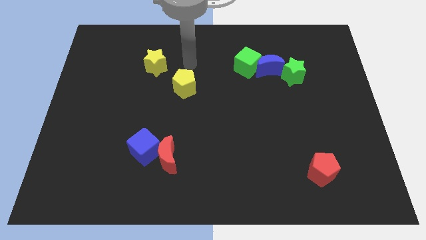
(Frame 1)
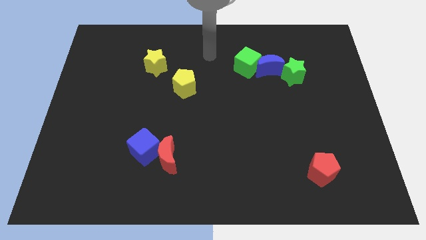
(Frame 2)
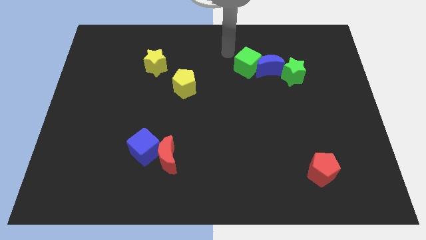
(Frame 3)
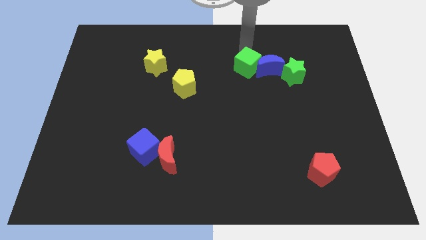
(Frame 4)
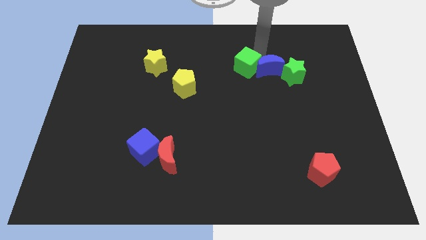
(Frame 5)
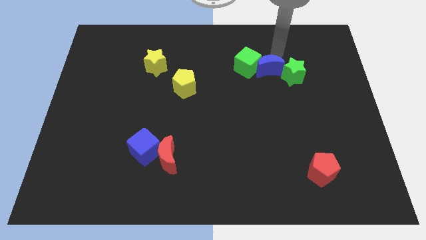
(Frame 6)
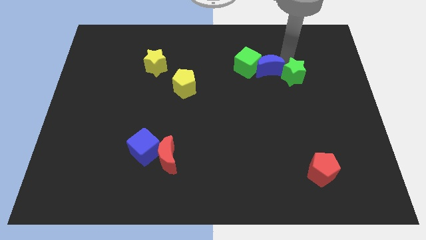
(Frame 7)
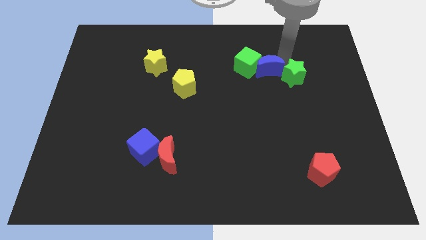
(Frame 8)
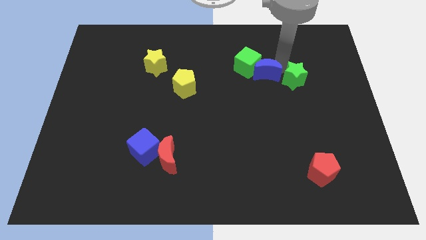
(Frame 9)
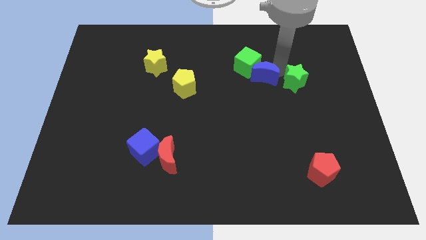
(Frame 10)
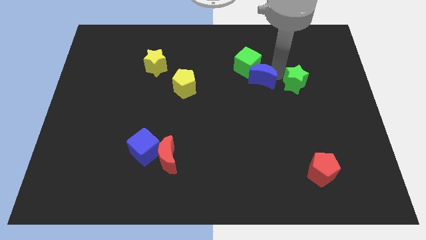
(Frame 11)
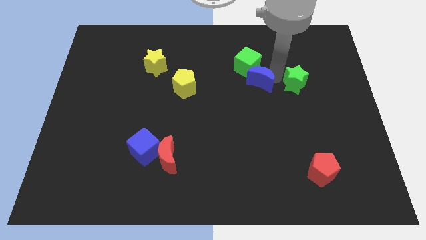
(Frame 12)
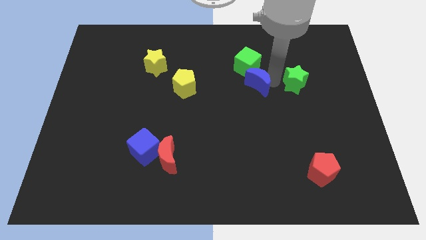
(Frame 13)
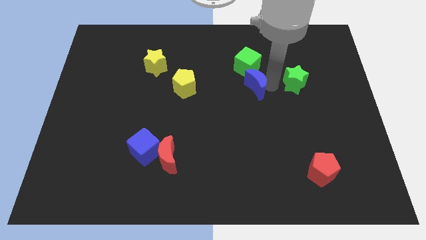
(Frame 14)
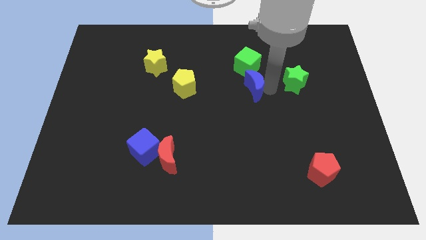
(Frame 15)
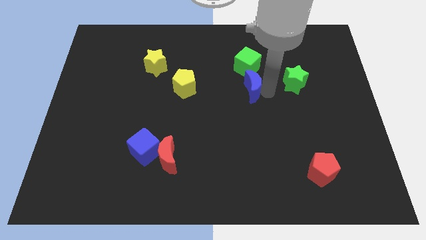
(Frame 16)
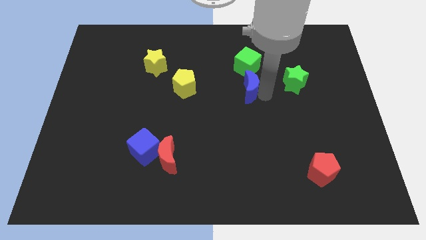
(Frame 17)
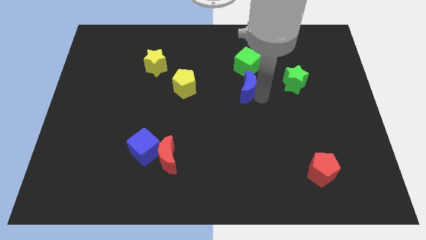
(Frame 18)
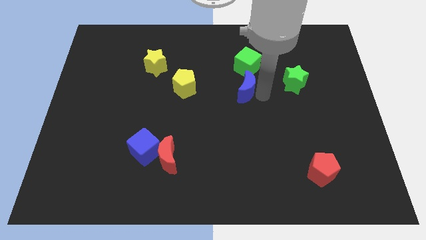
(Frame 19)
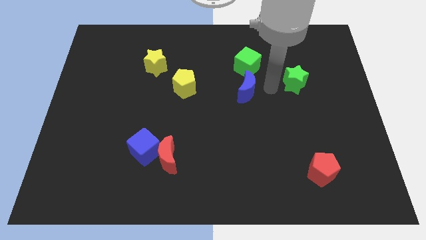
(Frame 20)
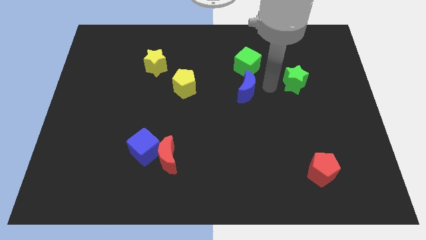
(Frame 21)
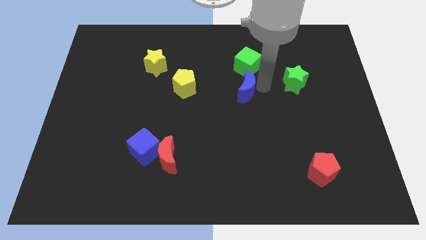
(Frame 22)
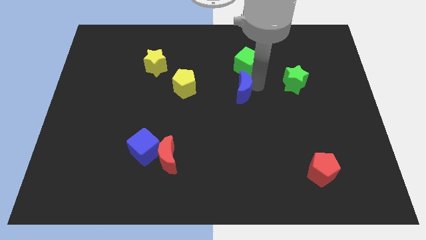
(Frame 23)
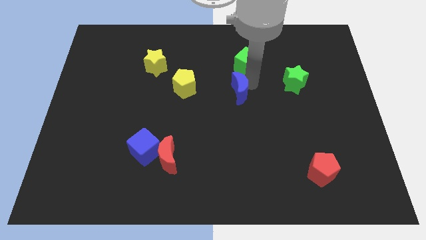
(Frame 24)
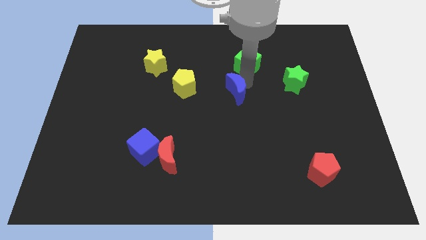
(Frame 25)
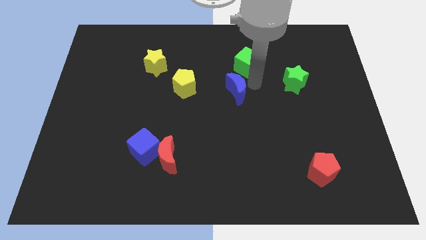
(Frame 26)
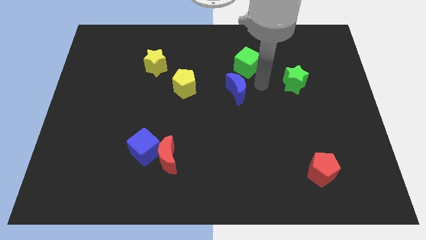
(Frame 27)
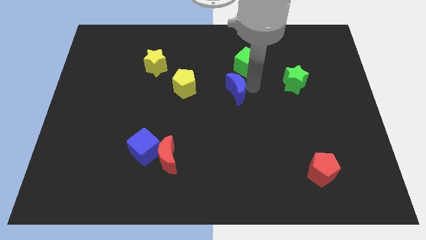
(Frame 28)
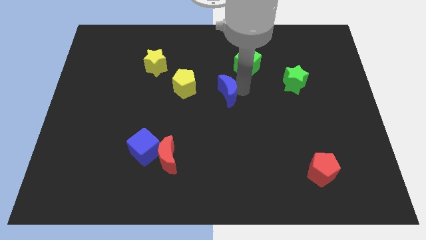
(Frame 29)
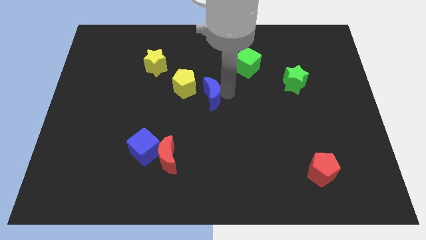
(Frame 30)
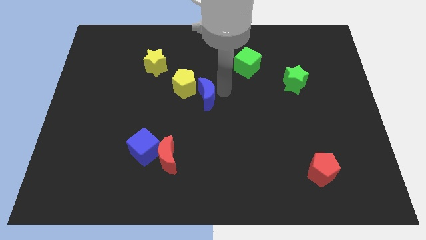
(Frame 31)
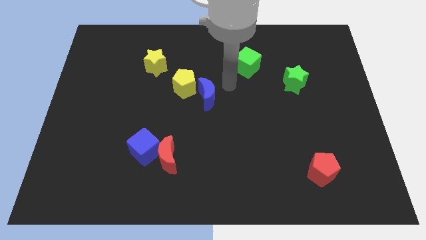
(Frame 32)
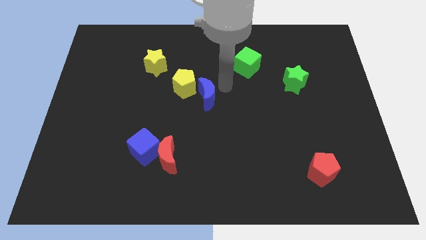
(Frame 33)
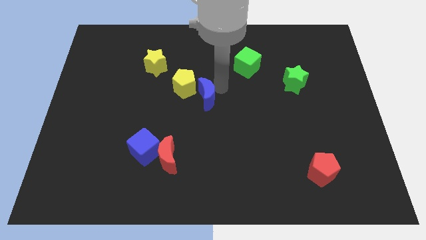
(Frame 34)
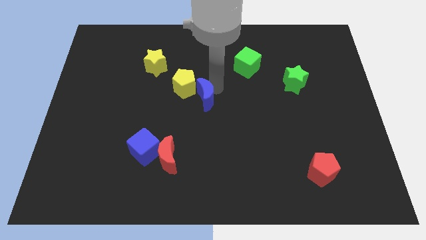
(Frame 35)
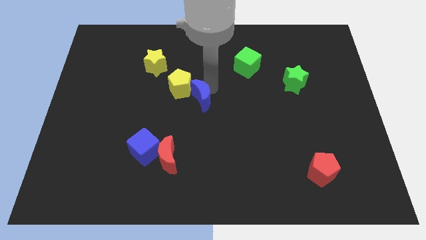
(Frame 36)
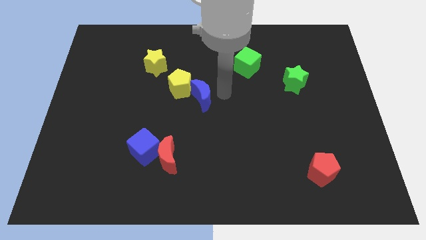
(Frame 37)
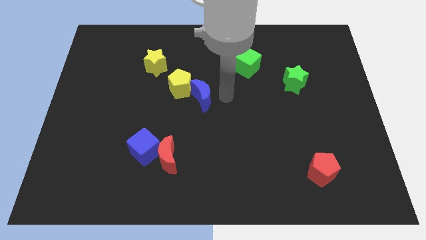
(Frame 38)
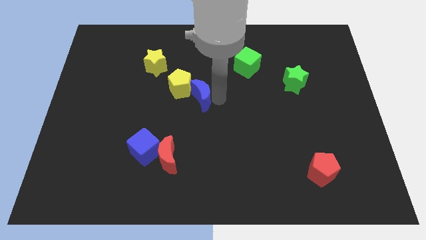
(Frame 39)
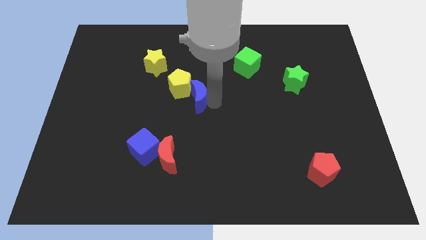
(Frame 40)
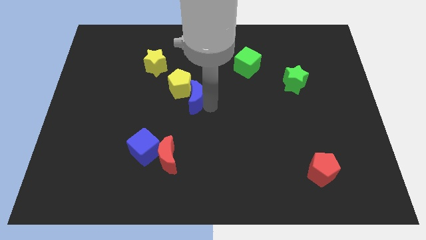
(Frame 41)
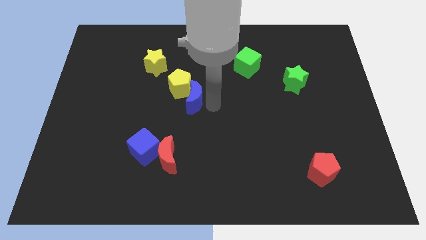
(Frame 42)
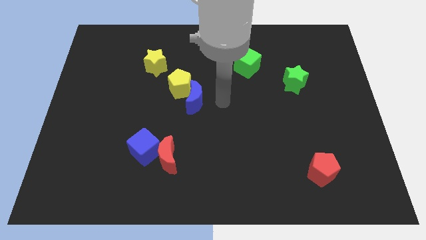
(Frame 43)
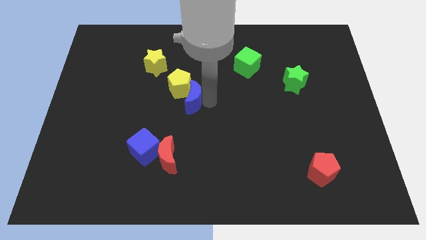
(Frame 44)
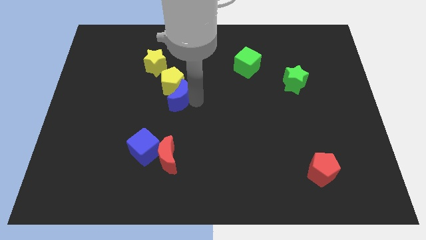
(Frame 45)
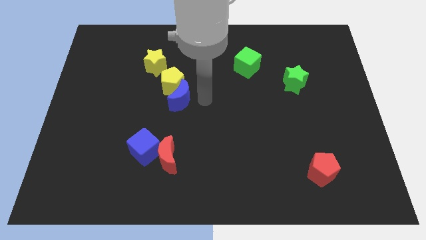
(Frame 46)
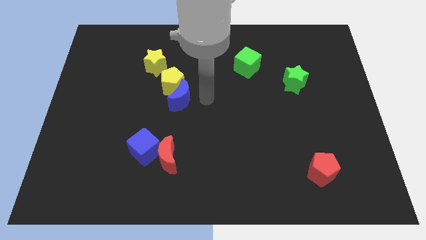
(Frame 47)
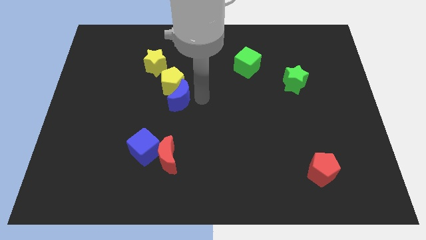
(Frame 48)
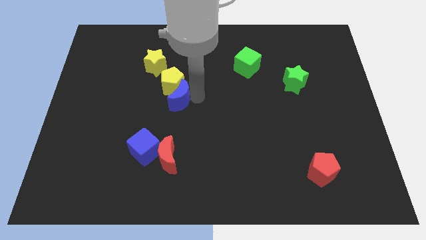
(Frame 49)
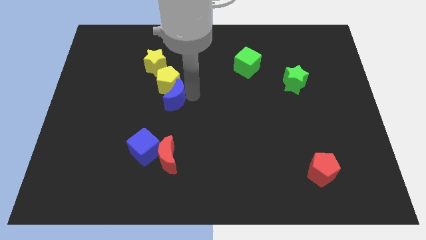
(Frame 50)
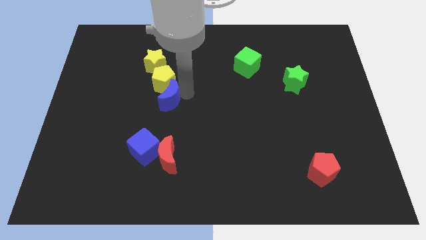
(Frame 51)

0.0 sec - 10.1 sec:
slide the blue moon to the bottom of the yellow star

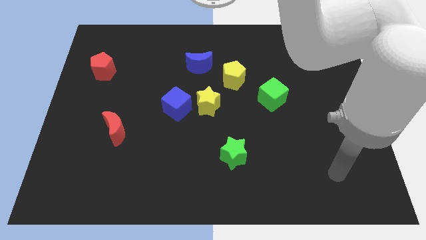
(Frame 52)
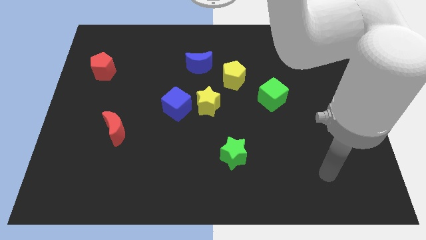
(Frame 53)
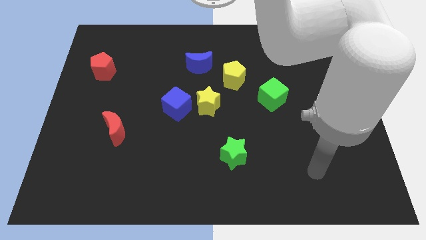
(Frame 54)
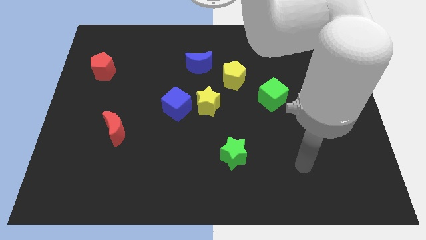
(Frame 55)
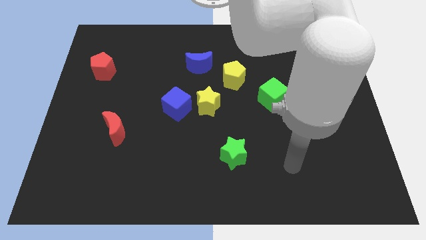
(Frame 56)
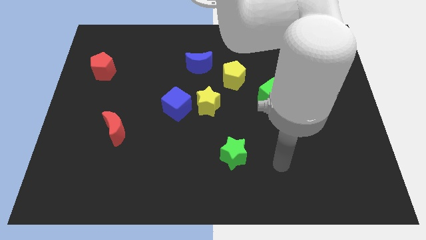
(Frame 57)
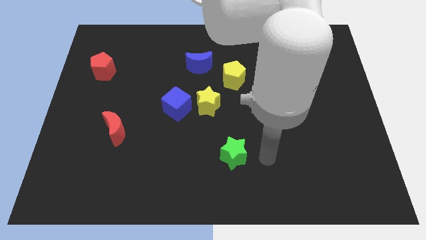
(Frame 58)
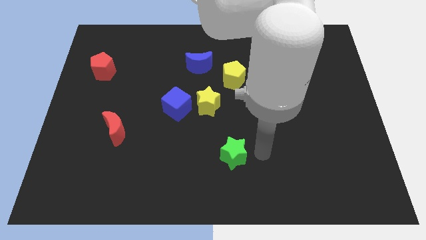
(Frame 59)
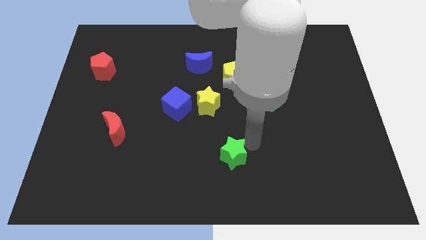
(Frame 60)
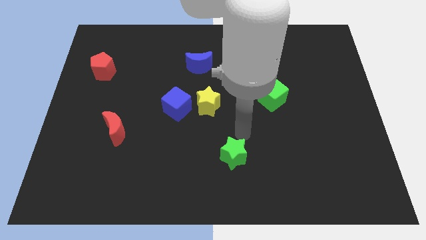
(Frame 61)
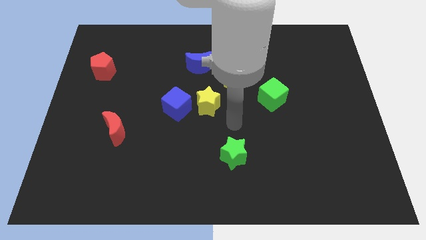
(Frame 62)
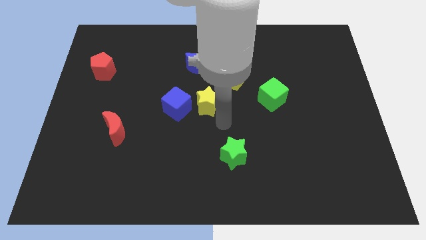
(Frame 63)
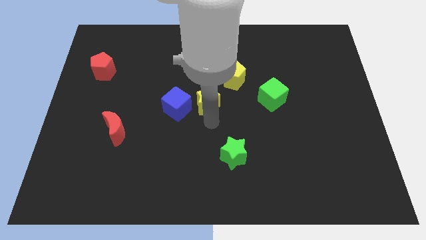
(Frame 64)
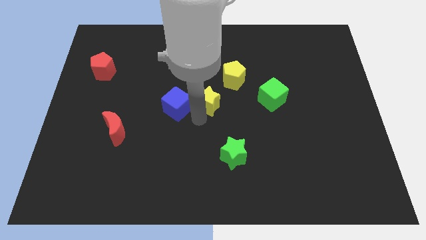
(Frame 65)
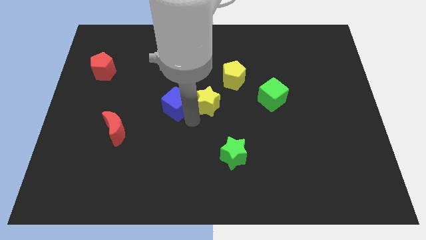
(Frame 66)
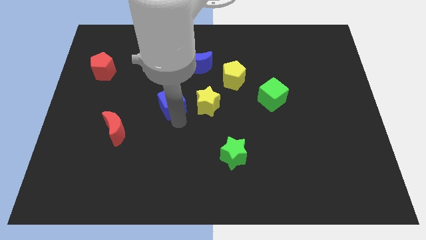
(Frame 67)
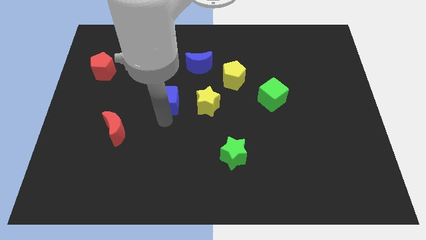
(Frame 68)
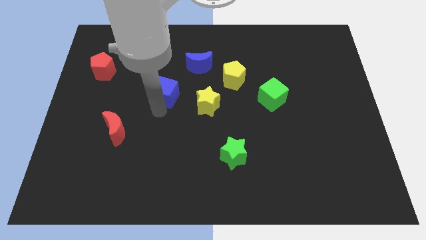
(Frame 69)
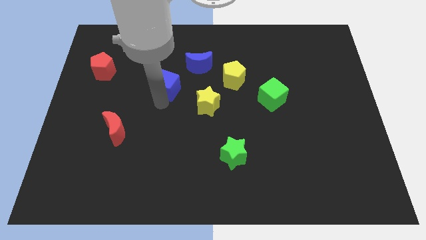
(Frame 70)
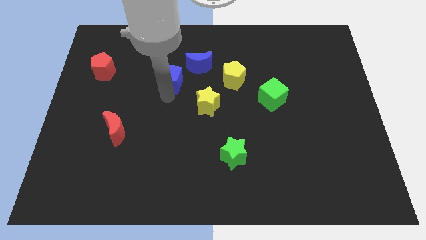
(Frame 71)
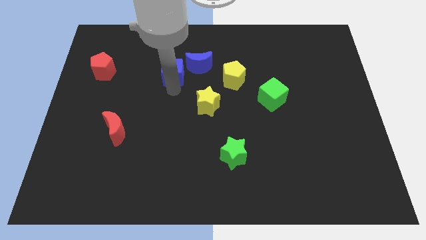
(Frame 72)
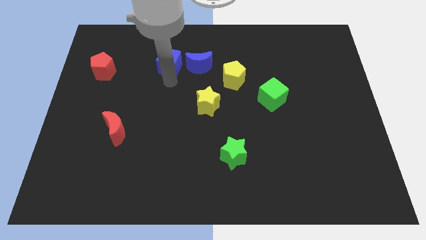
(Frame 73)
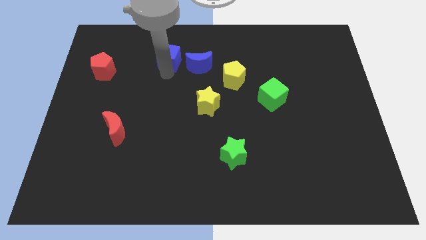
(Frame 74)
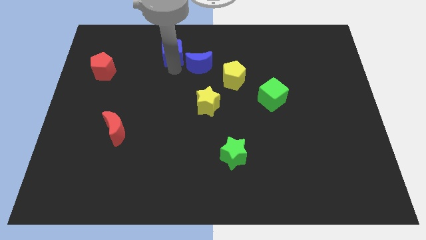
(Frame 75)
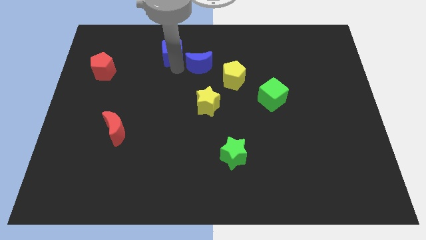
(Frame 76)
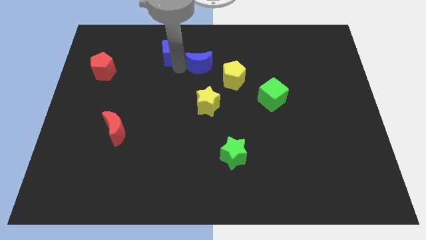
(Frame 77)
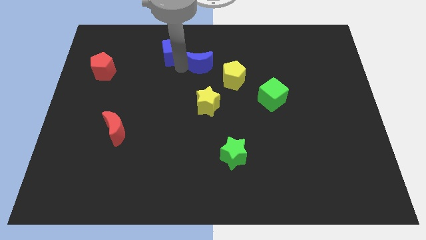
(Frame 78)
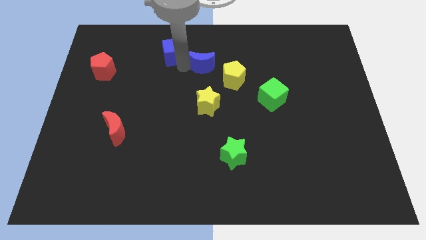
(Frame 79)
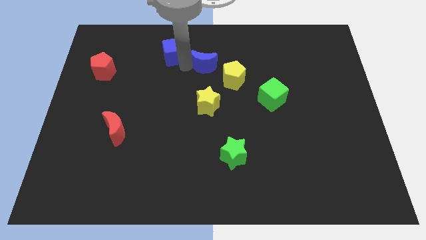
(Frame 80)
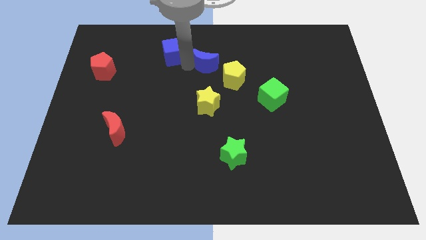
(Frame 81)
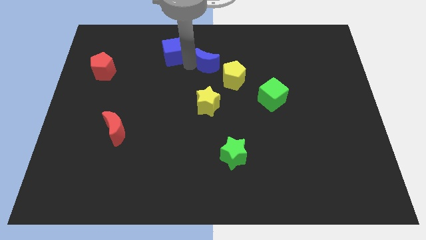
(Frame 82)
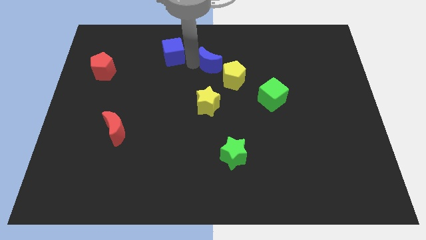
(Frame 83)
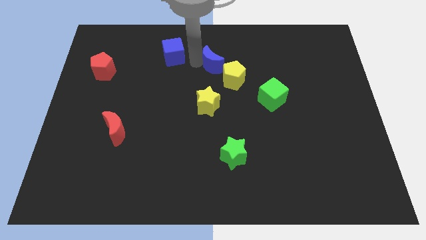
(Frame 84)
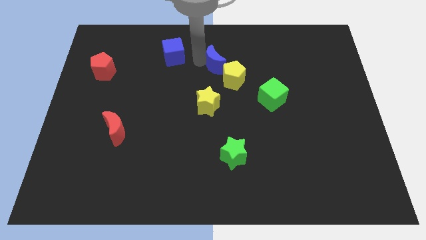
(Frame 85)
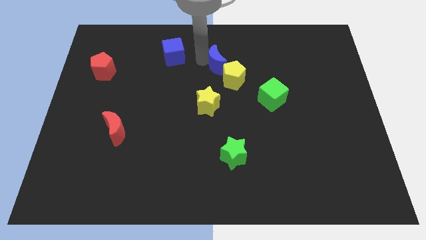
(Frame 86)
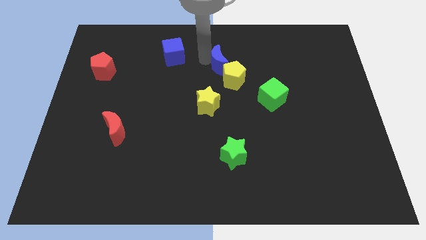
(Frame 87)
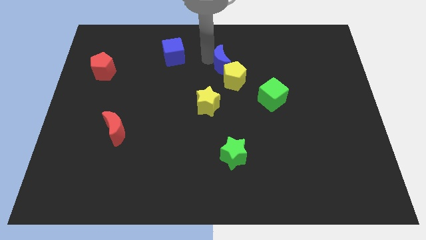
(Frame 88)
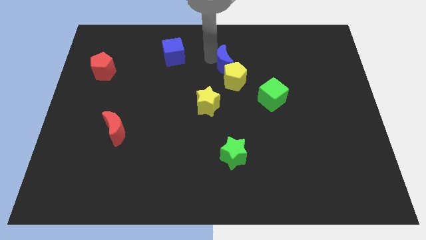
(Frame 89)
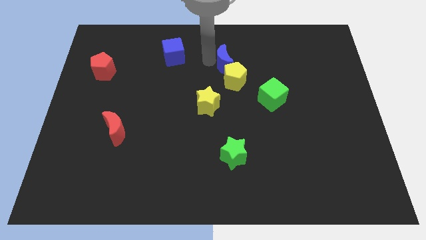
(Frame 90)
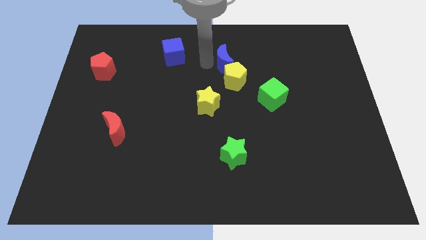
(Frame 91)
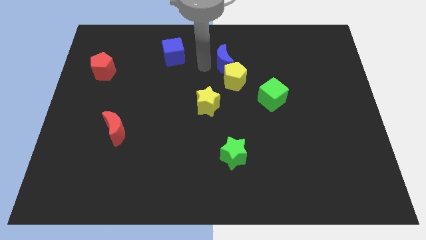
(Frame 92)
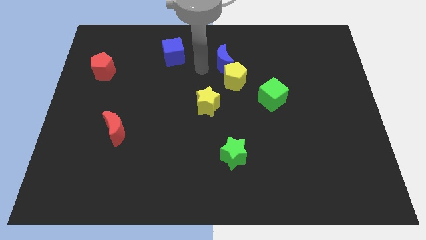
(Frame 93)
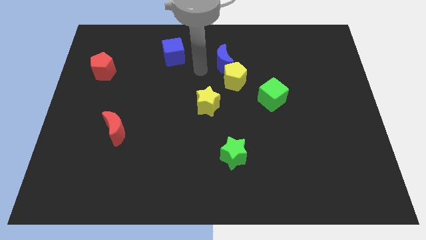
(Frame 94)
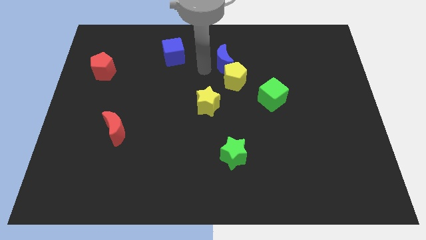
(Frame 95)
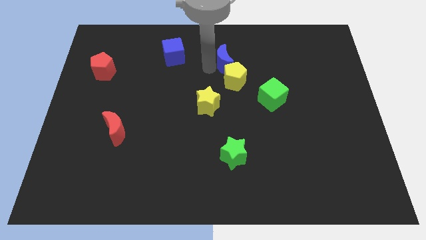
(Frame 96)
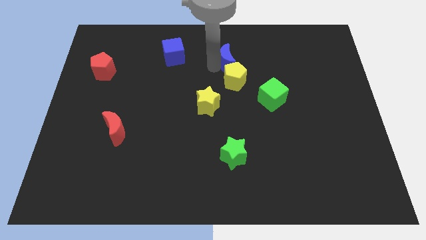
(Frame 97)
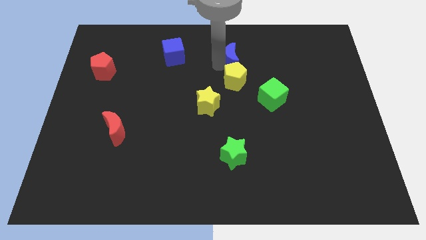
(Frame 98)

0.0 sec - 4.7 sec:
move the blue moon to the top right of the yellow pentagon
